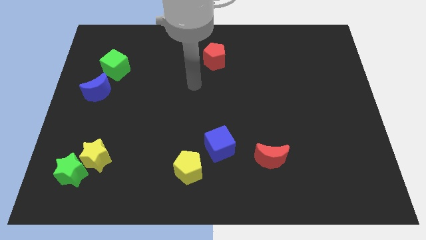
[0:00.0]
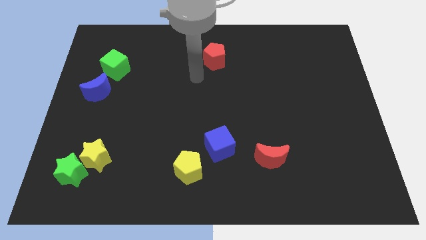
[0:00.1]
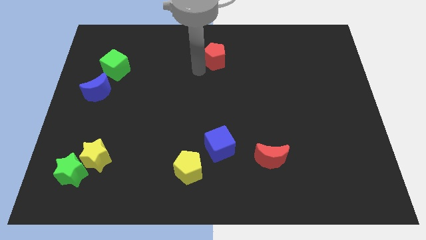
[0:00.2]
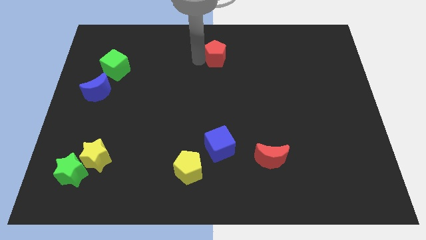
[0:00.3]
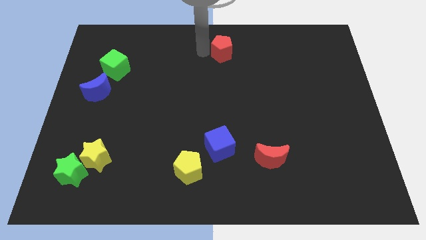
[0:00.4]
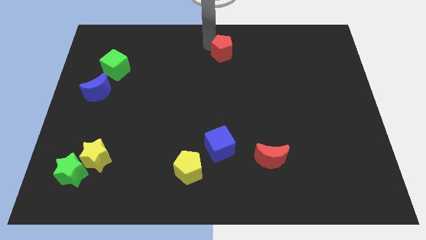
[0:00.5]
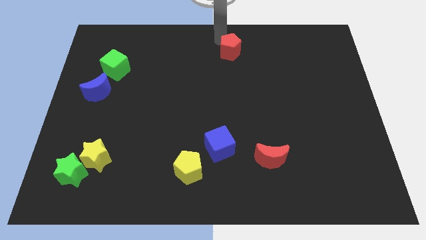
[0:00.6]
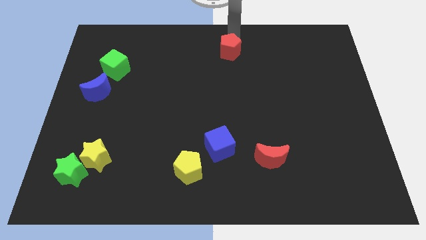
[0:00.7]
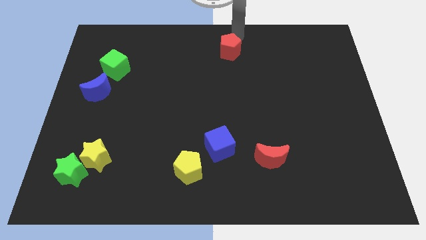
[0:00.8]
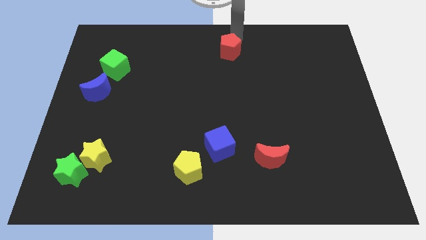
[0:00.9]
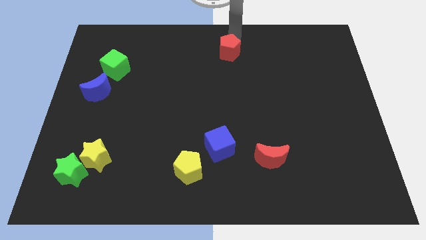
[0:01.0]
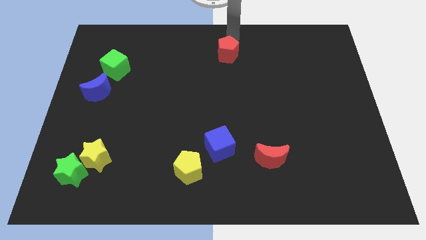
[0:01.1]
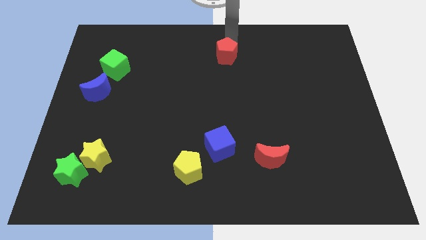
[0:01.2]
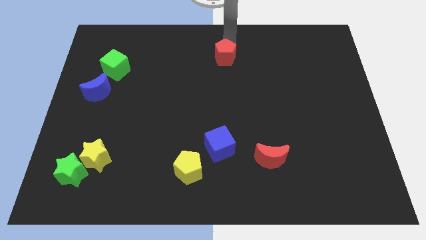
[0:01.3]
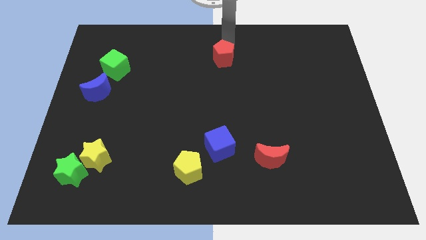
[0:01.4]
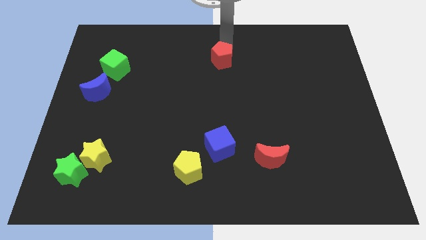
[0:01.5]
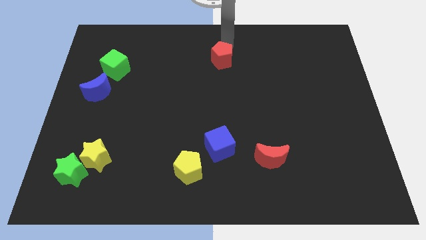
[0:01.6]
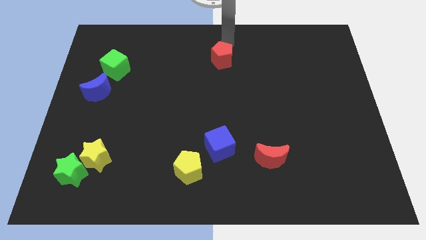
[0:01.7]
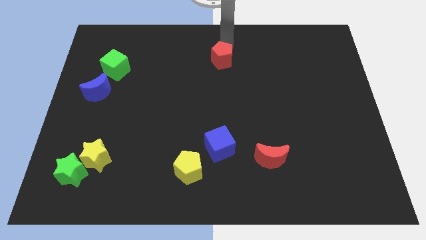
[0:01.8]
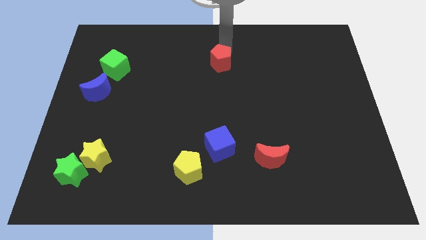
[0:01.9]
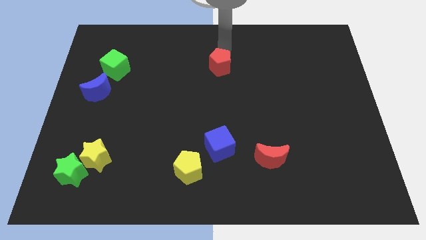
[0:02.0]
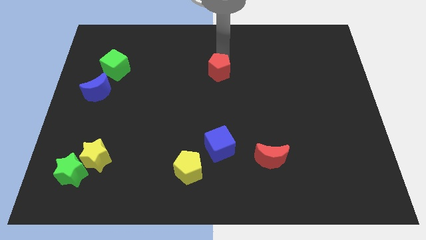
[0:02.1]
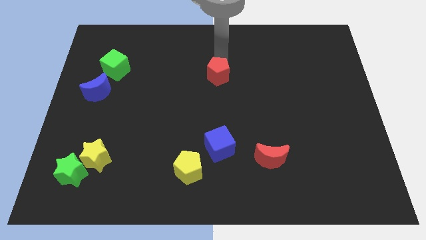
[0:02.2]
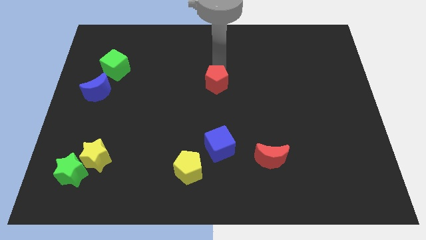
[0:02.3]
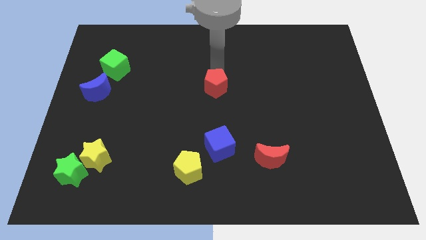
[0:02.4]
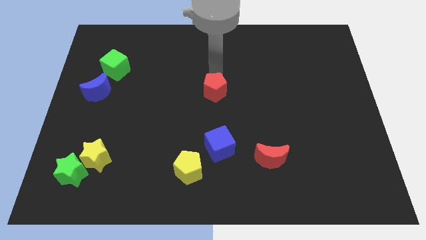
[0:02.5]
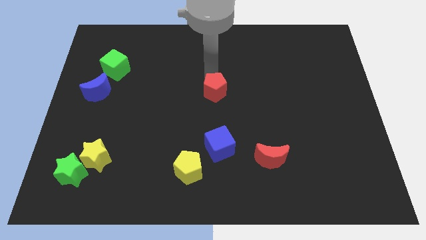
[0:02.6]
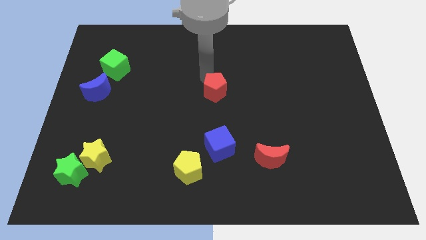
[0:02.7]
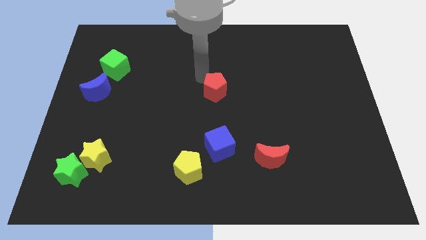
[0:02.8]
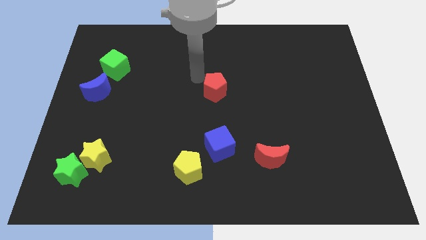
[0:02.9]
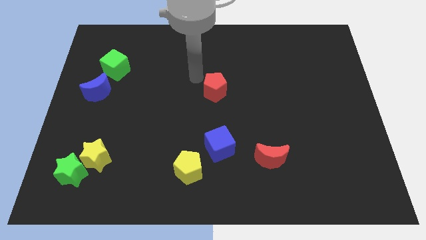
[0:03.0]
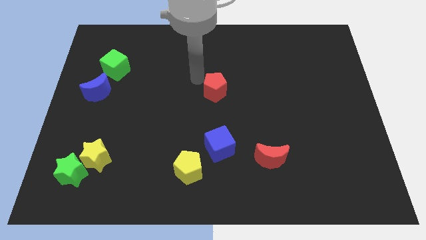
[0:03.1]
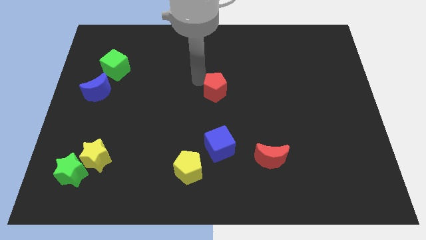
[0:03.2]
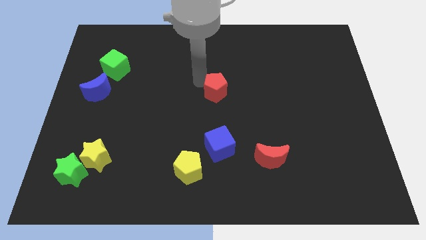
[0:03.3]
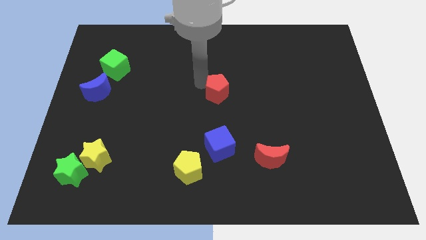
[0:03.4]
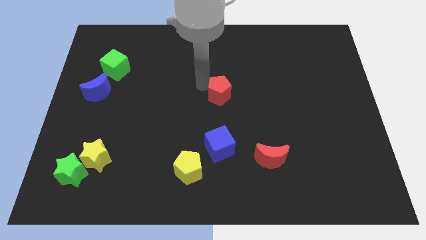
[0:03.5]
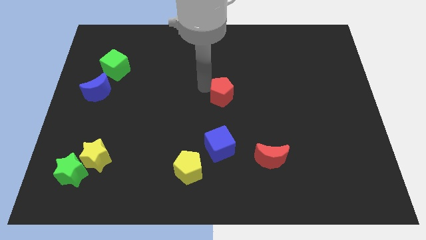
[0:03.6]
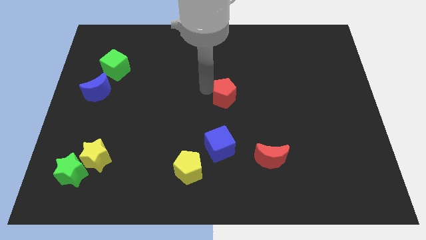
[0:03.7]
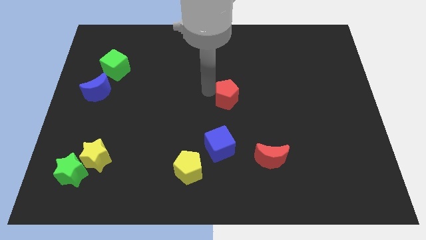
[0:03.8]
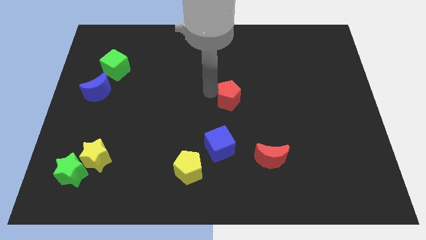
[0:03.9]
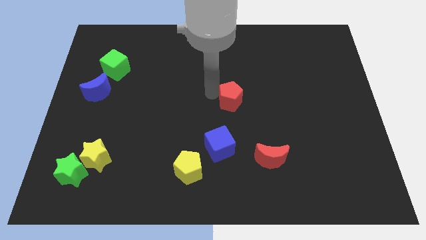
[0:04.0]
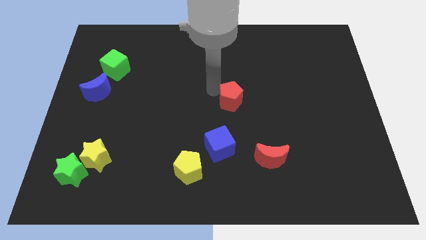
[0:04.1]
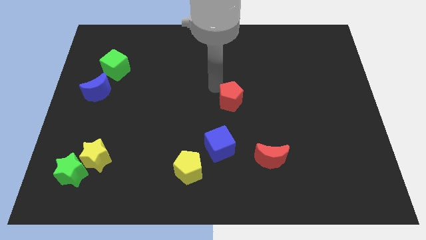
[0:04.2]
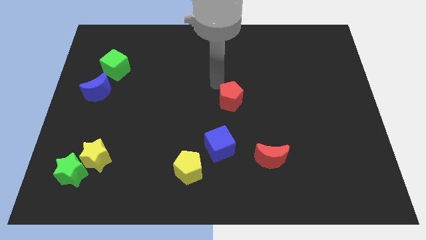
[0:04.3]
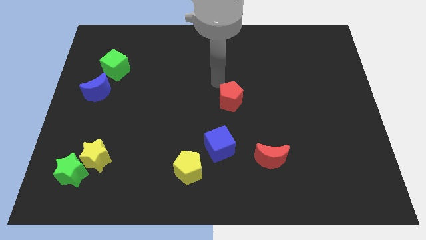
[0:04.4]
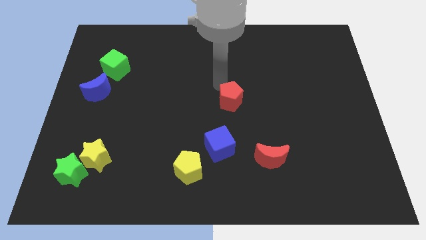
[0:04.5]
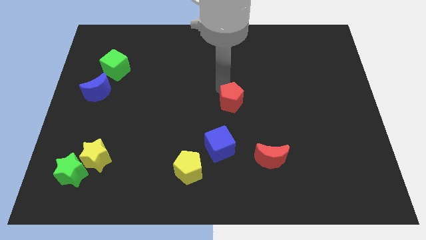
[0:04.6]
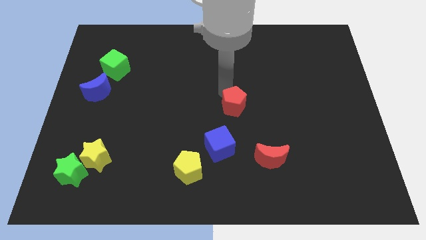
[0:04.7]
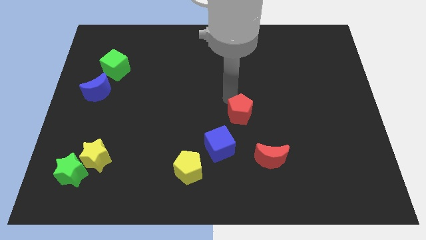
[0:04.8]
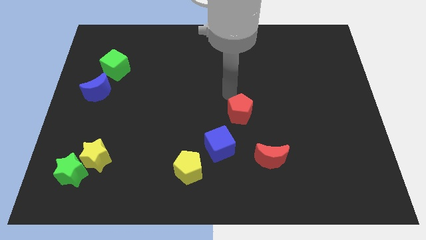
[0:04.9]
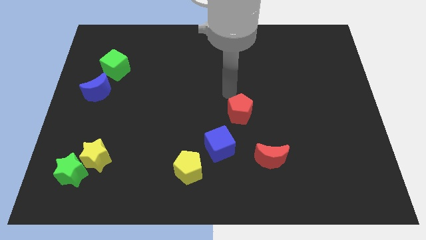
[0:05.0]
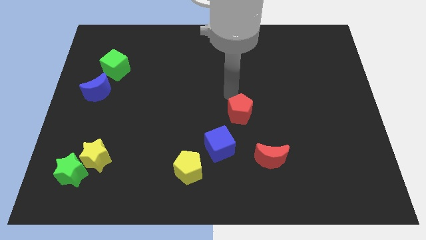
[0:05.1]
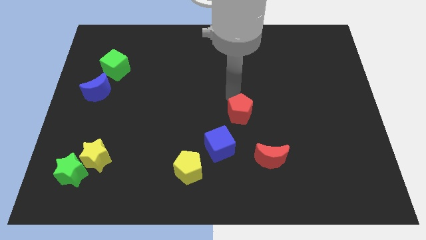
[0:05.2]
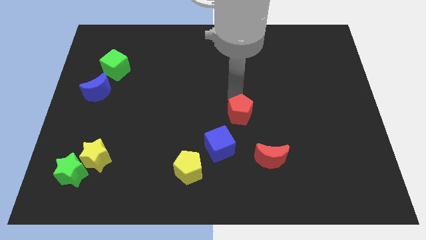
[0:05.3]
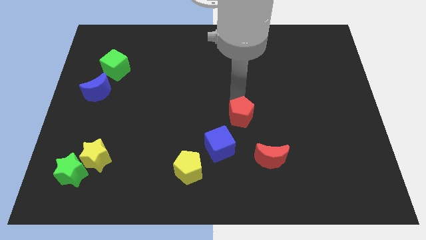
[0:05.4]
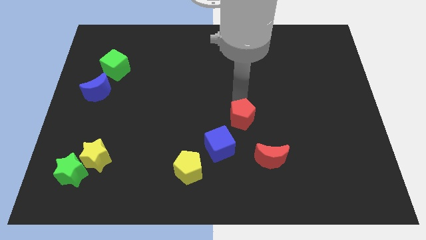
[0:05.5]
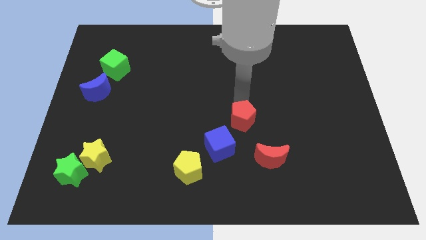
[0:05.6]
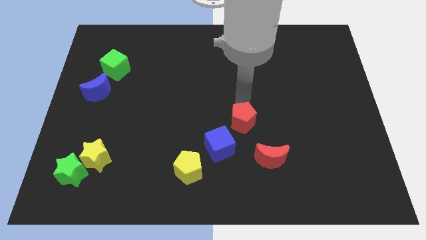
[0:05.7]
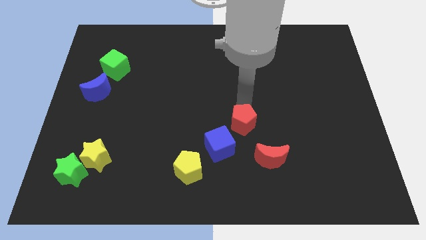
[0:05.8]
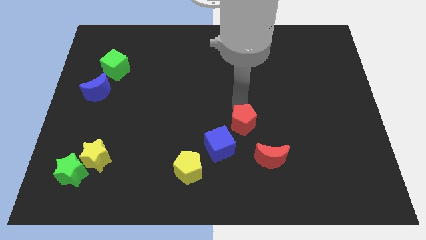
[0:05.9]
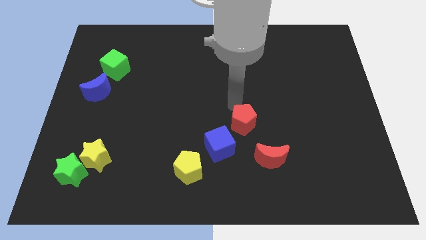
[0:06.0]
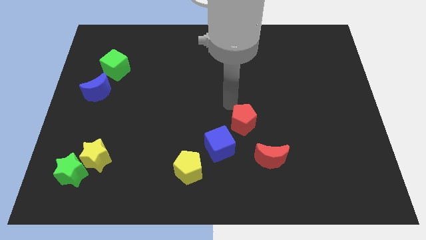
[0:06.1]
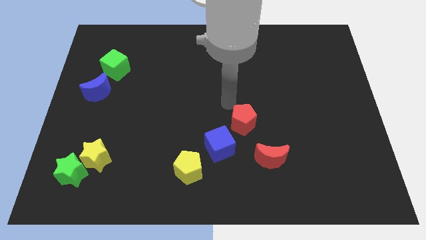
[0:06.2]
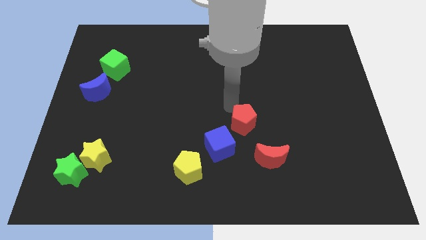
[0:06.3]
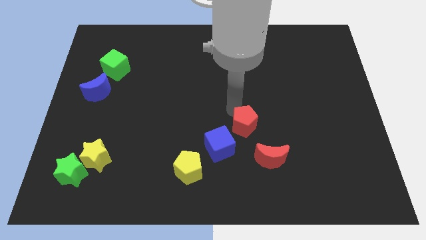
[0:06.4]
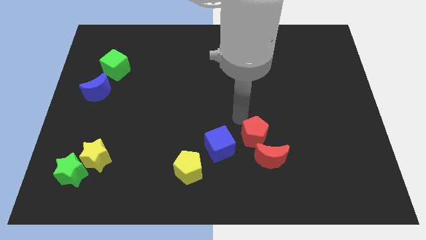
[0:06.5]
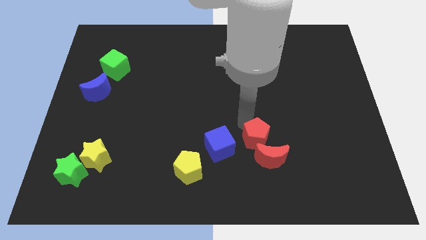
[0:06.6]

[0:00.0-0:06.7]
push the red pentagon next to the red moon
